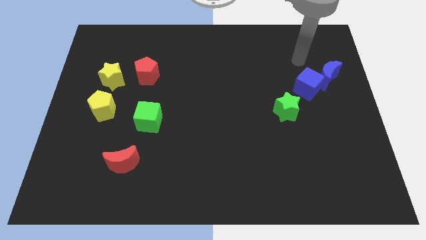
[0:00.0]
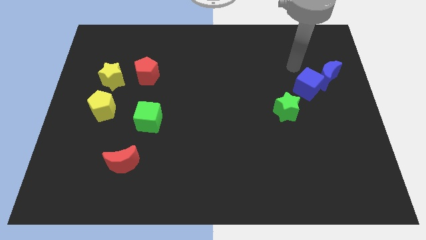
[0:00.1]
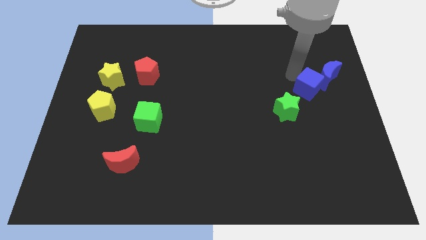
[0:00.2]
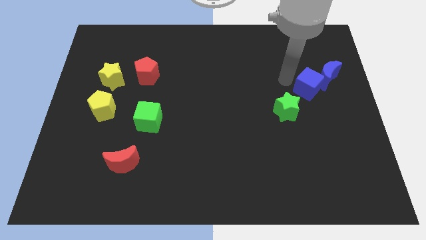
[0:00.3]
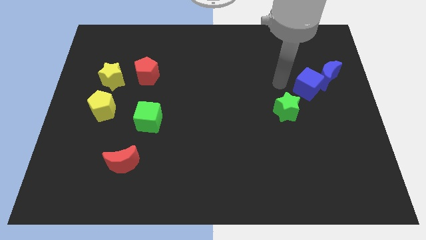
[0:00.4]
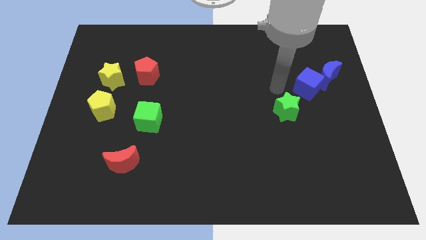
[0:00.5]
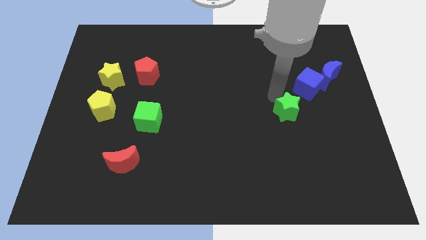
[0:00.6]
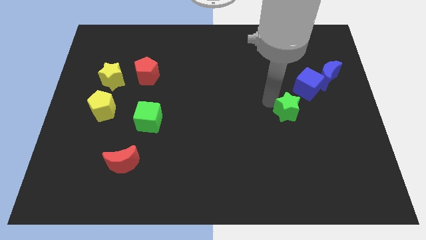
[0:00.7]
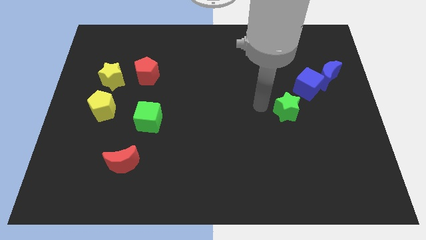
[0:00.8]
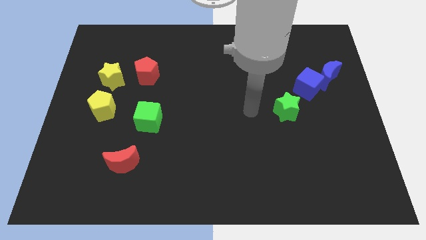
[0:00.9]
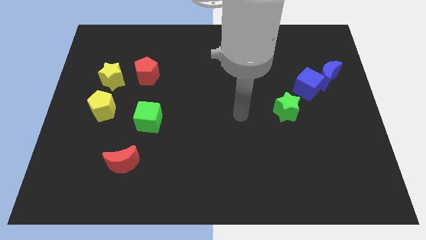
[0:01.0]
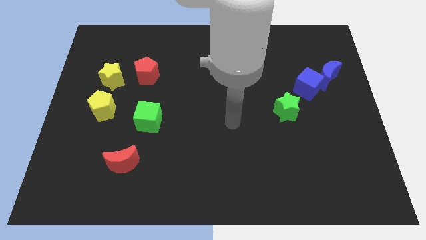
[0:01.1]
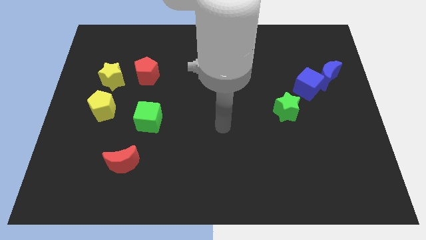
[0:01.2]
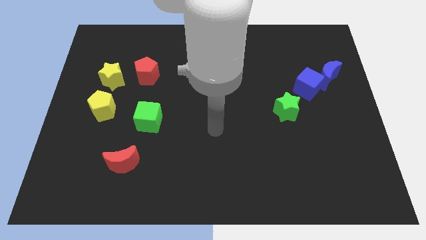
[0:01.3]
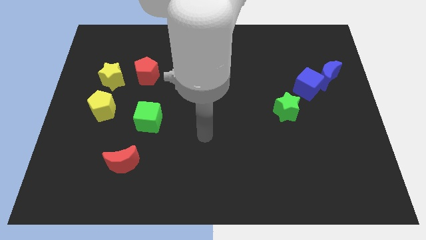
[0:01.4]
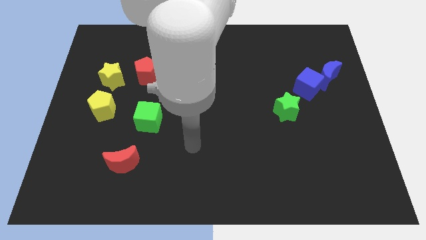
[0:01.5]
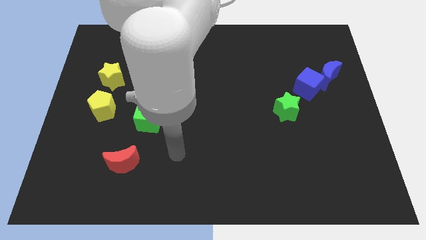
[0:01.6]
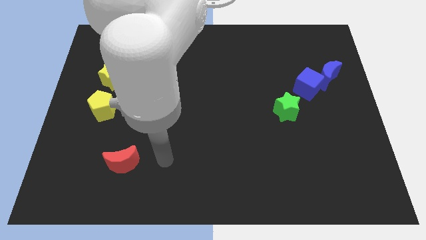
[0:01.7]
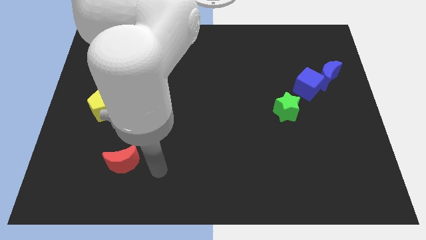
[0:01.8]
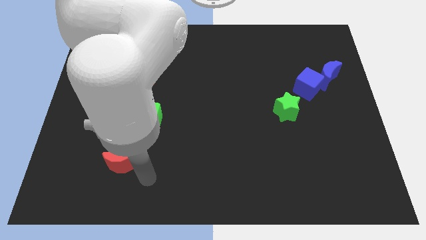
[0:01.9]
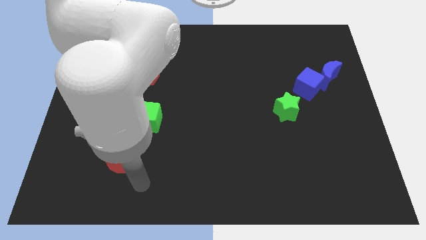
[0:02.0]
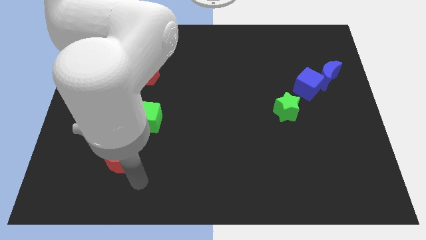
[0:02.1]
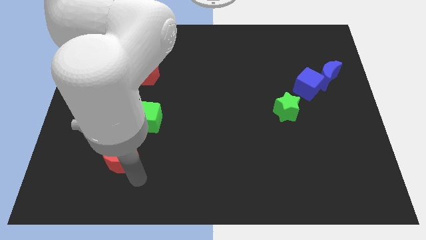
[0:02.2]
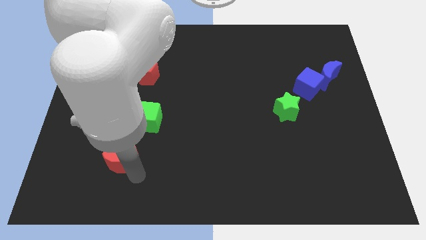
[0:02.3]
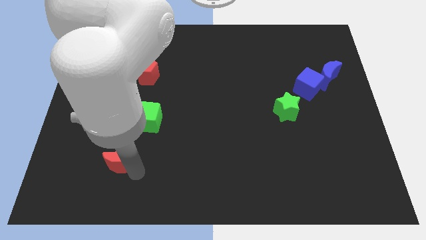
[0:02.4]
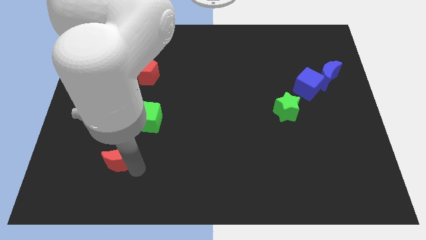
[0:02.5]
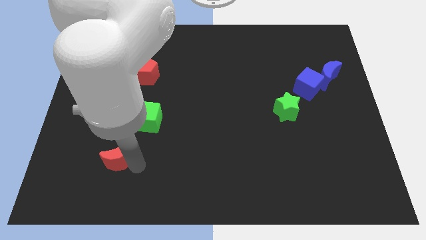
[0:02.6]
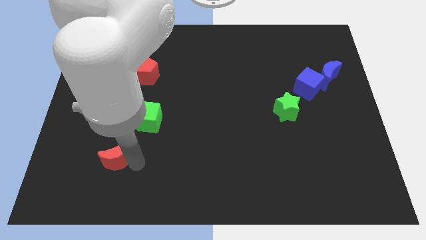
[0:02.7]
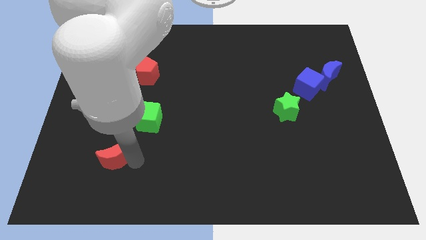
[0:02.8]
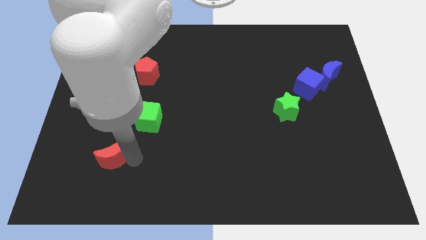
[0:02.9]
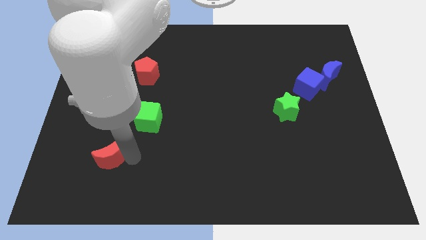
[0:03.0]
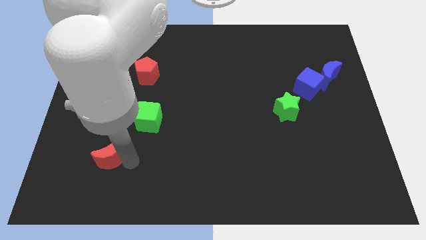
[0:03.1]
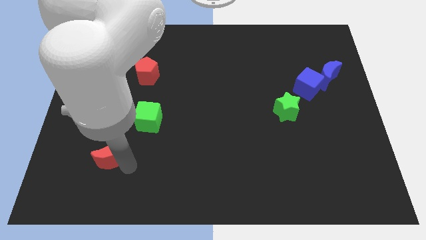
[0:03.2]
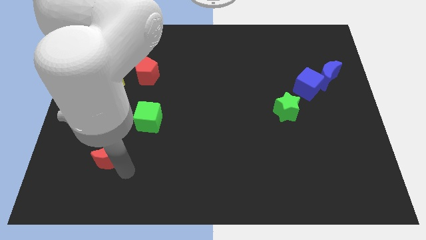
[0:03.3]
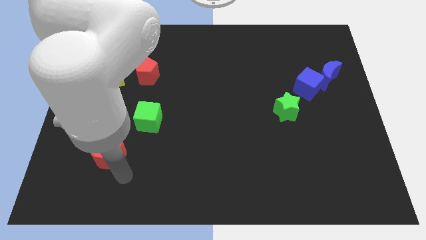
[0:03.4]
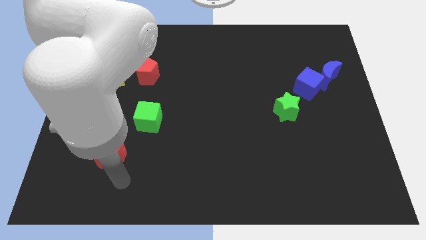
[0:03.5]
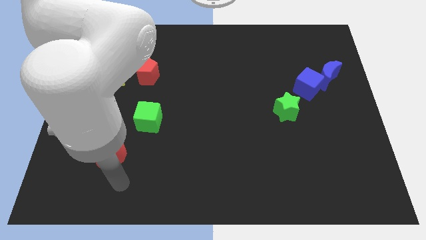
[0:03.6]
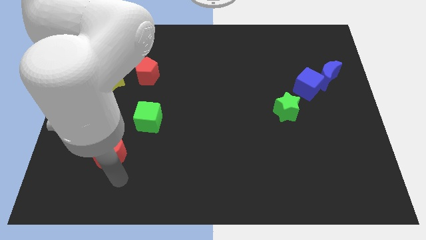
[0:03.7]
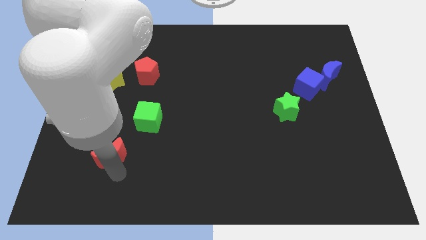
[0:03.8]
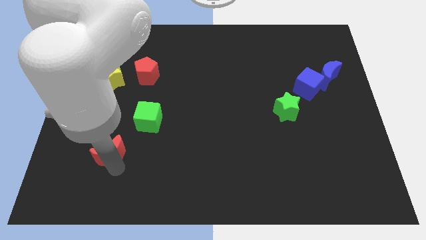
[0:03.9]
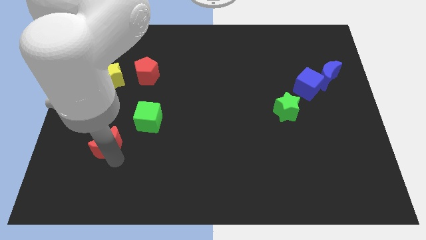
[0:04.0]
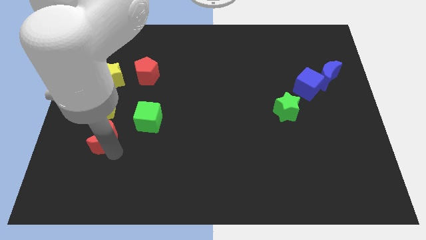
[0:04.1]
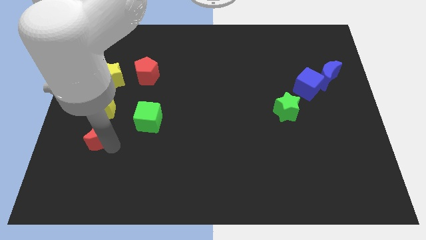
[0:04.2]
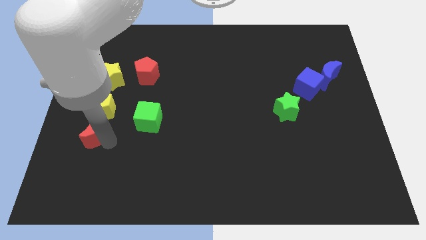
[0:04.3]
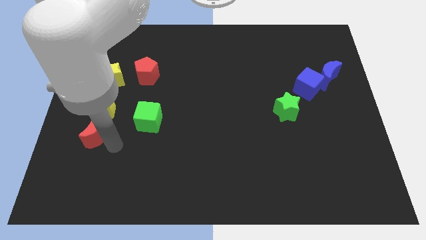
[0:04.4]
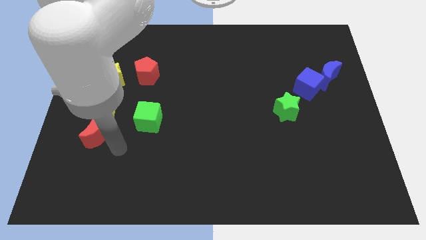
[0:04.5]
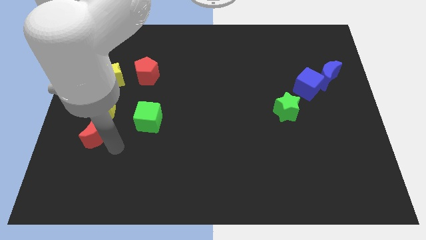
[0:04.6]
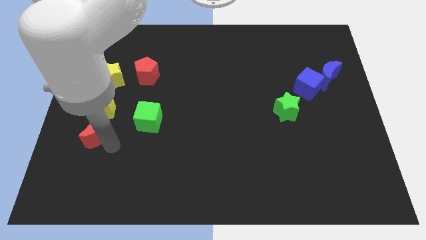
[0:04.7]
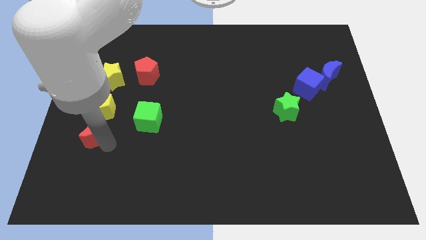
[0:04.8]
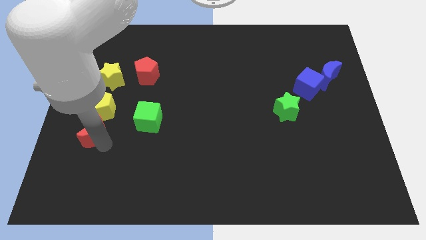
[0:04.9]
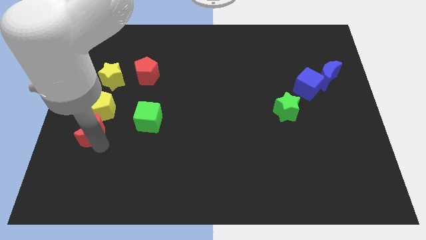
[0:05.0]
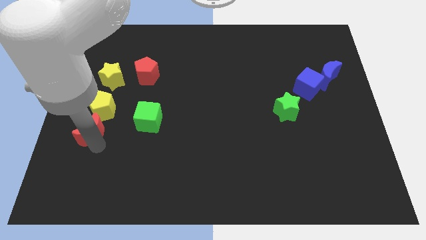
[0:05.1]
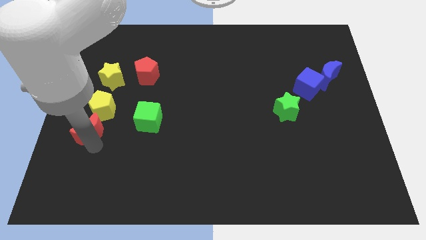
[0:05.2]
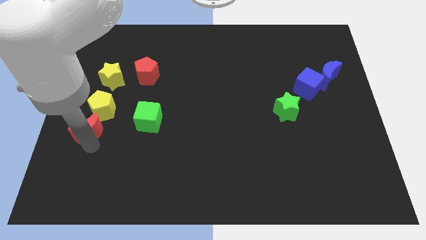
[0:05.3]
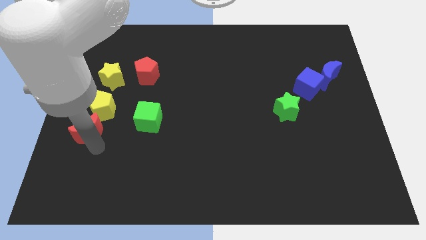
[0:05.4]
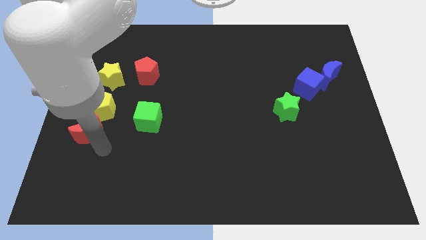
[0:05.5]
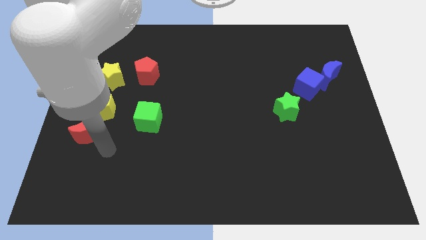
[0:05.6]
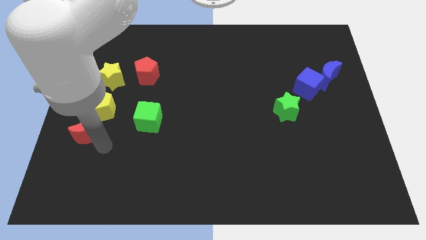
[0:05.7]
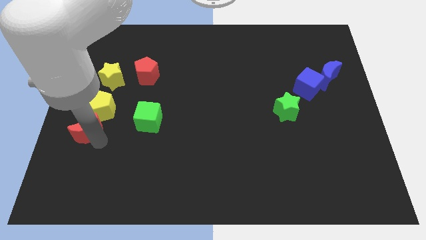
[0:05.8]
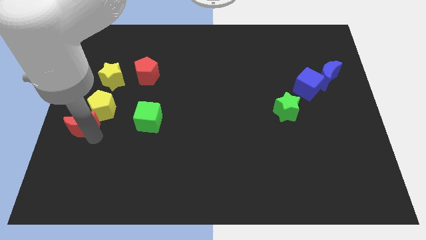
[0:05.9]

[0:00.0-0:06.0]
put the red moon to the left side

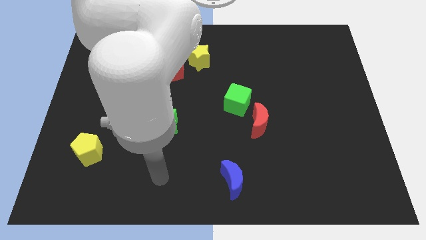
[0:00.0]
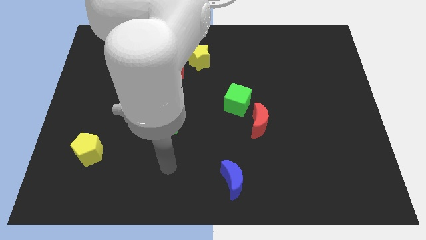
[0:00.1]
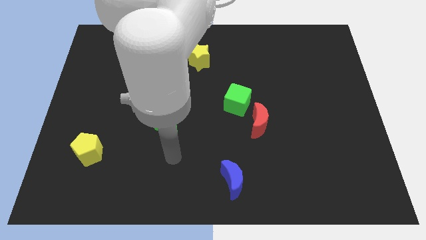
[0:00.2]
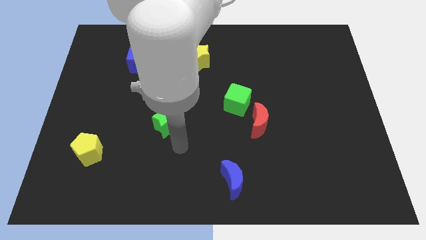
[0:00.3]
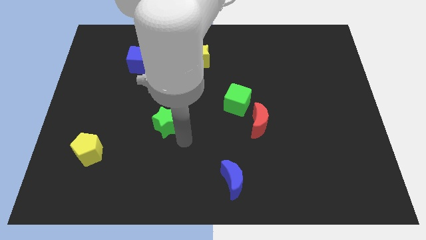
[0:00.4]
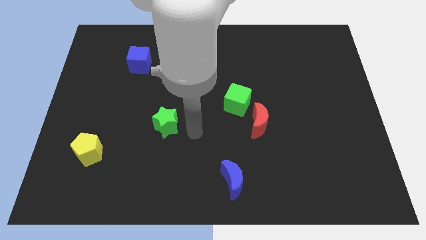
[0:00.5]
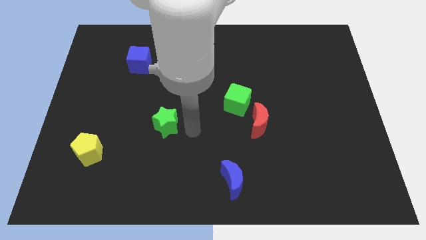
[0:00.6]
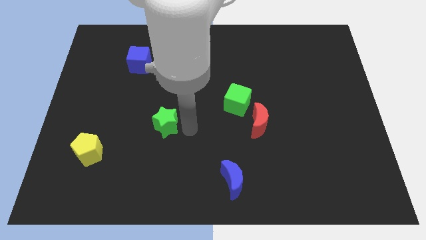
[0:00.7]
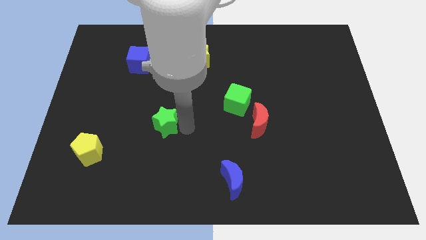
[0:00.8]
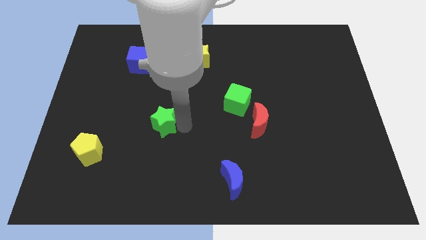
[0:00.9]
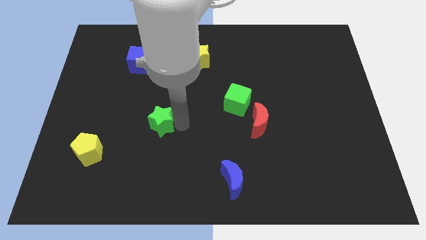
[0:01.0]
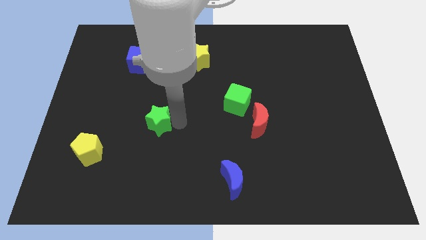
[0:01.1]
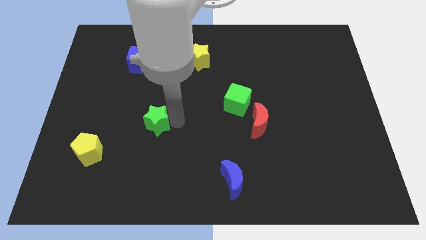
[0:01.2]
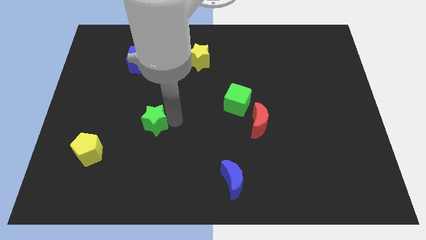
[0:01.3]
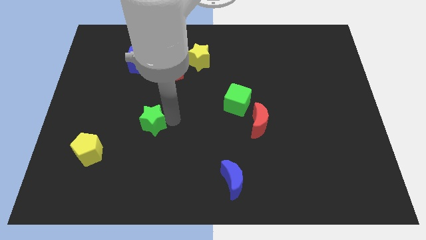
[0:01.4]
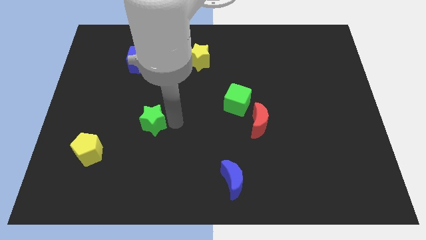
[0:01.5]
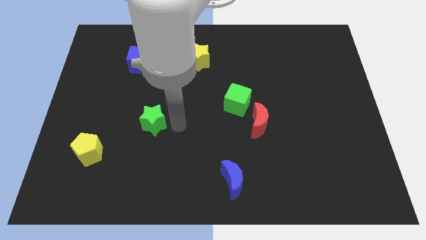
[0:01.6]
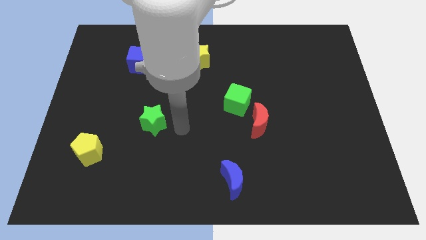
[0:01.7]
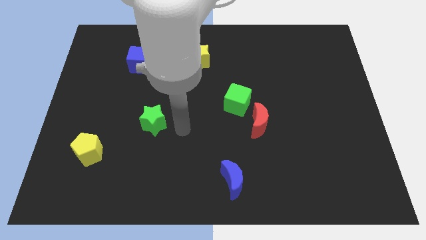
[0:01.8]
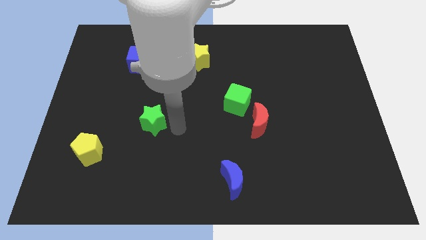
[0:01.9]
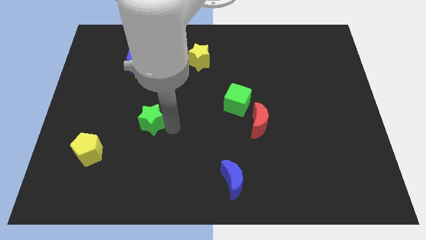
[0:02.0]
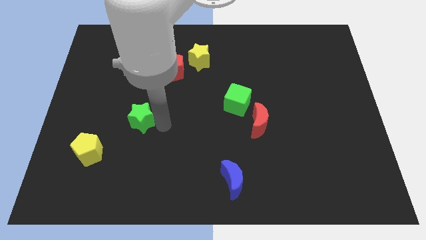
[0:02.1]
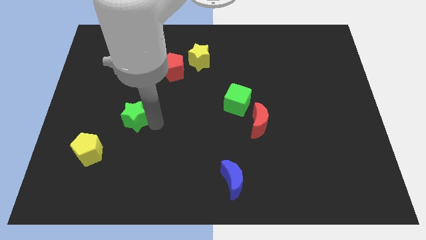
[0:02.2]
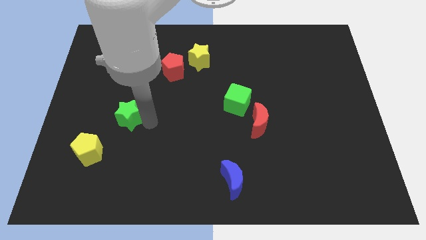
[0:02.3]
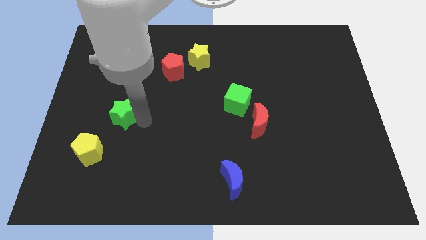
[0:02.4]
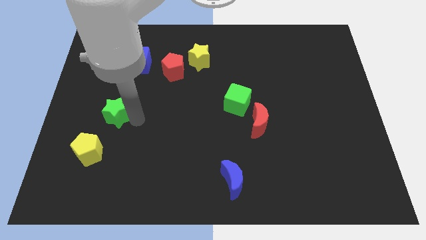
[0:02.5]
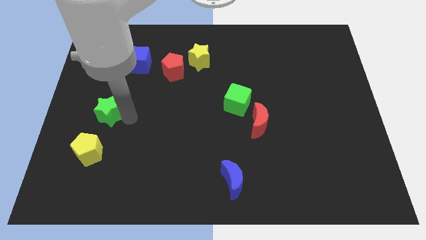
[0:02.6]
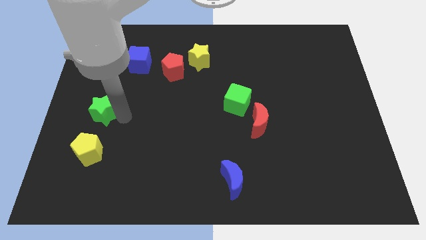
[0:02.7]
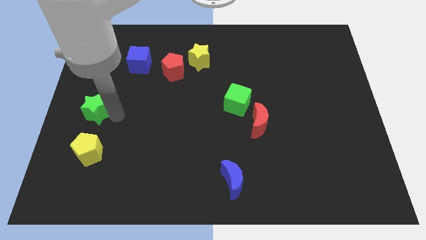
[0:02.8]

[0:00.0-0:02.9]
push the green star to the center left
